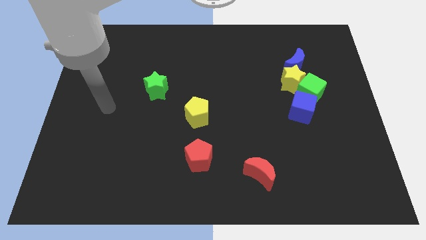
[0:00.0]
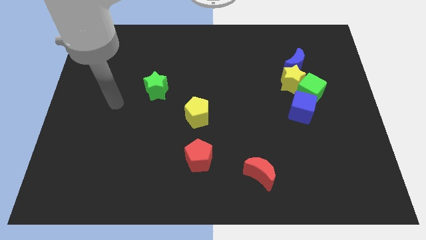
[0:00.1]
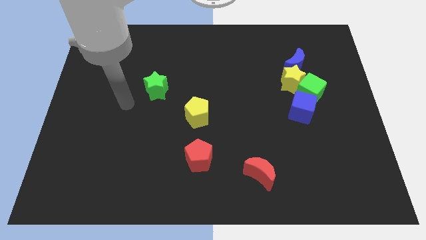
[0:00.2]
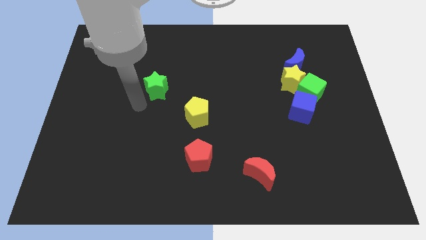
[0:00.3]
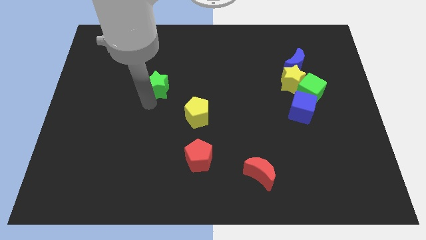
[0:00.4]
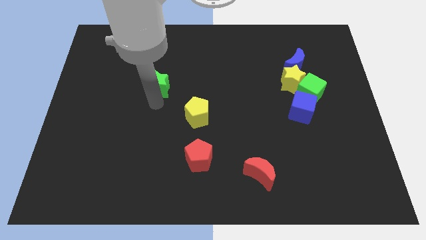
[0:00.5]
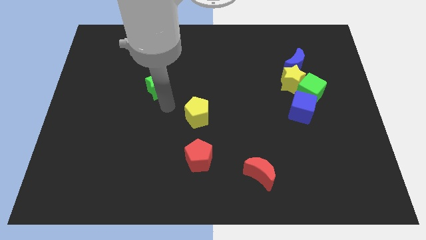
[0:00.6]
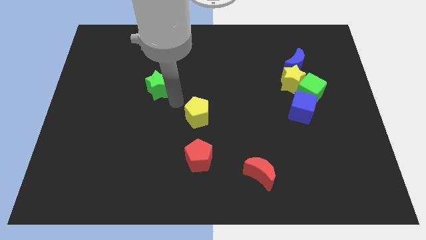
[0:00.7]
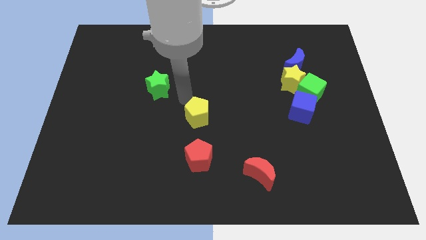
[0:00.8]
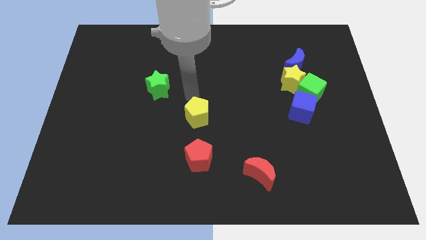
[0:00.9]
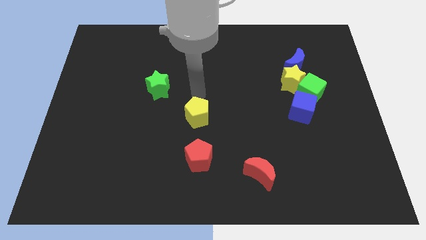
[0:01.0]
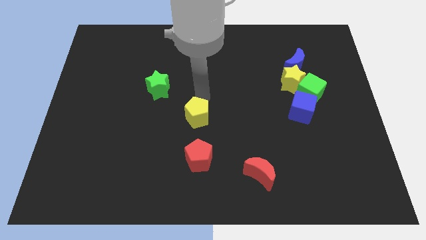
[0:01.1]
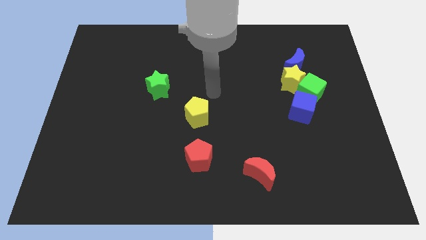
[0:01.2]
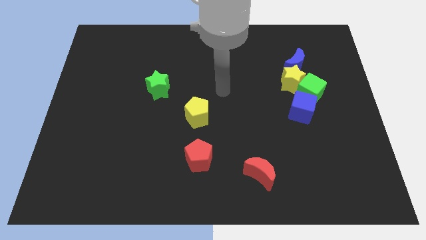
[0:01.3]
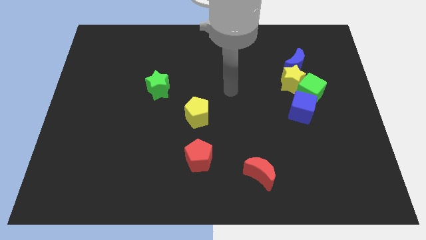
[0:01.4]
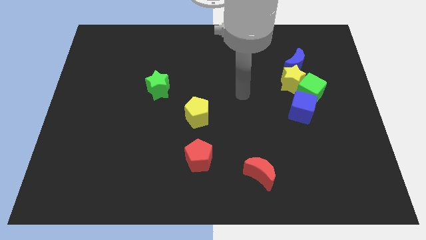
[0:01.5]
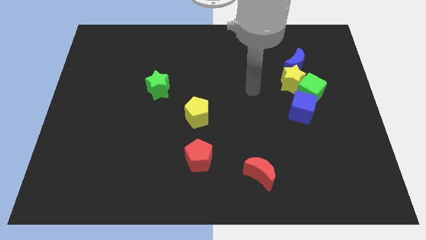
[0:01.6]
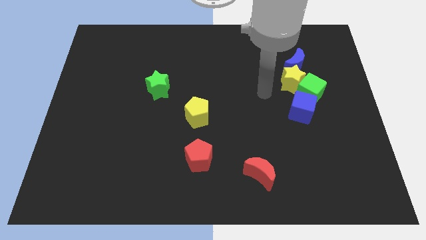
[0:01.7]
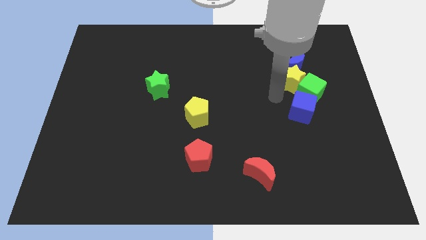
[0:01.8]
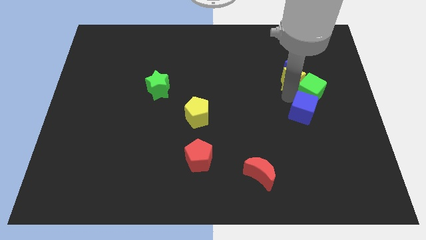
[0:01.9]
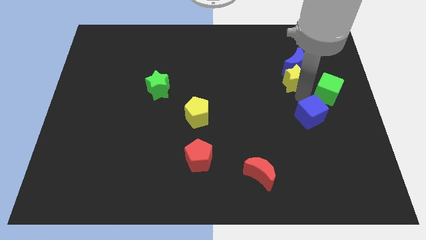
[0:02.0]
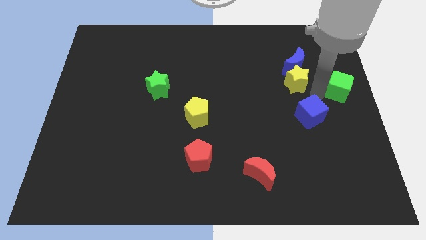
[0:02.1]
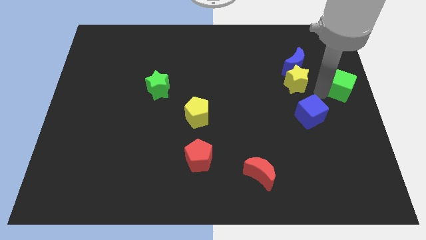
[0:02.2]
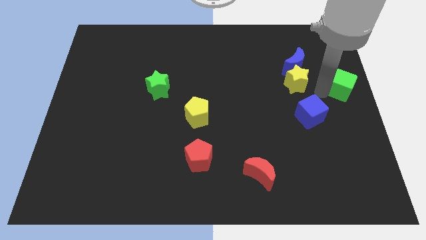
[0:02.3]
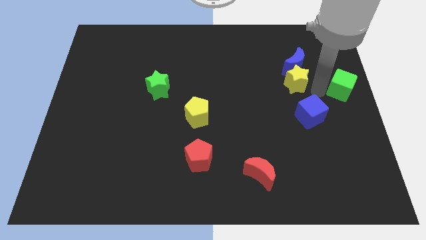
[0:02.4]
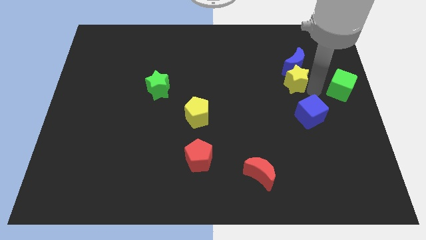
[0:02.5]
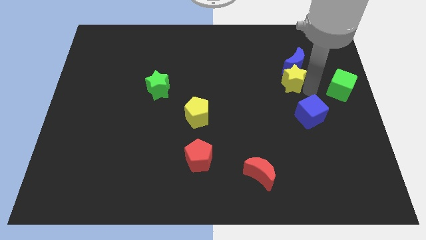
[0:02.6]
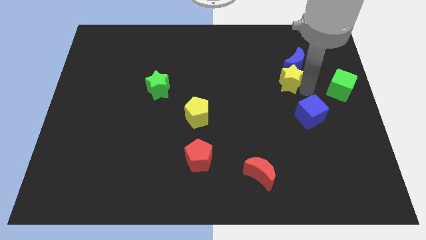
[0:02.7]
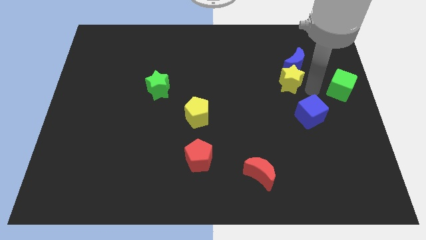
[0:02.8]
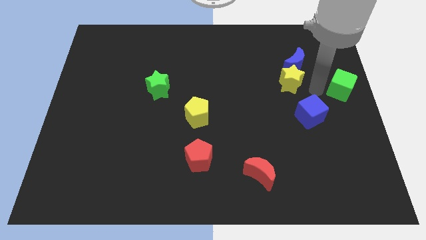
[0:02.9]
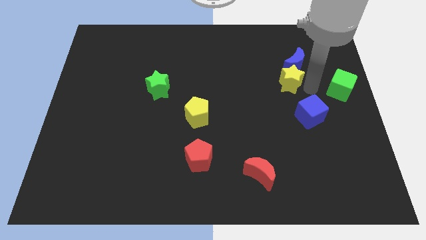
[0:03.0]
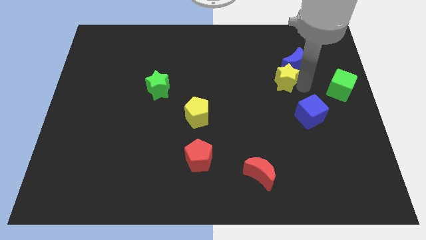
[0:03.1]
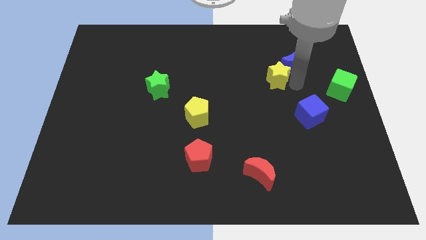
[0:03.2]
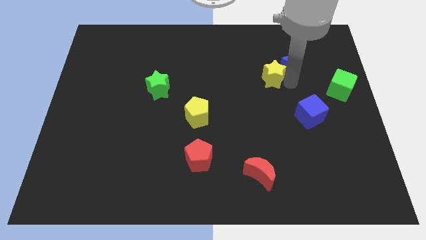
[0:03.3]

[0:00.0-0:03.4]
move the yellow star away from the group

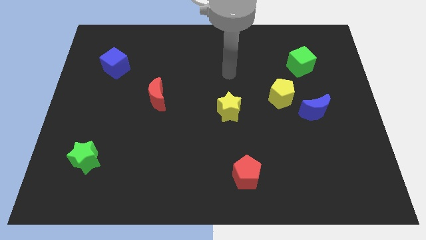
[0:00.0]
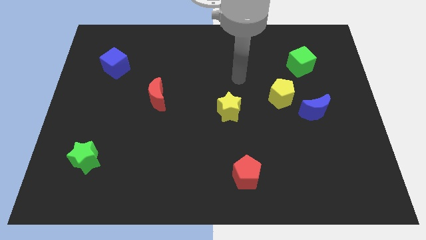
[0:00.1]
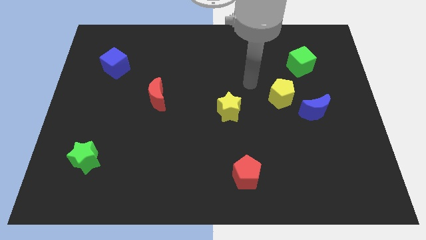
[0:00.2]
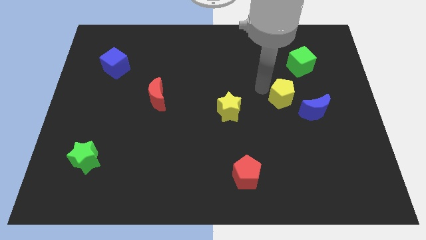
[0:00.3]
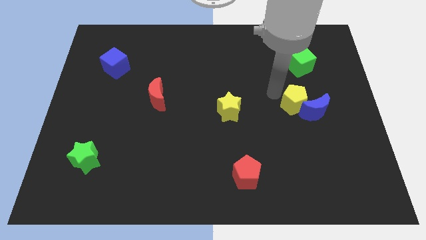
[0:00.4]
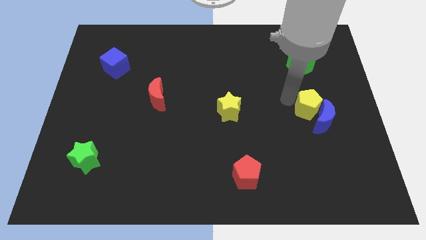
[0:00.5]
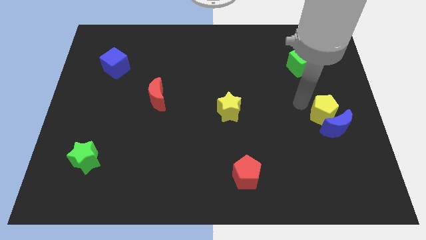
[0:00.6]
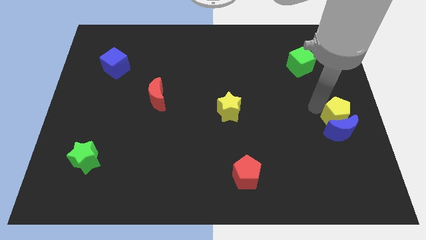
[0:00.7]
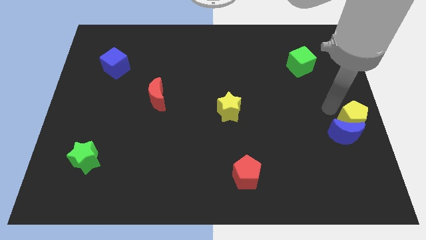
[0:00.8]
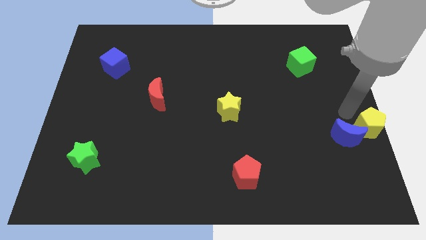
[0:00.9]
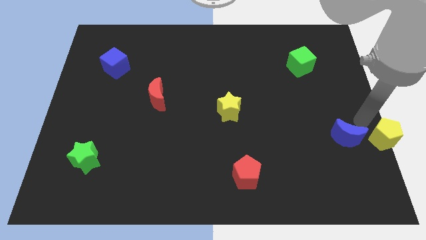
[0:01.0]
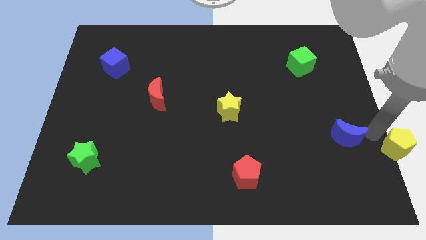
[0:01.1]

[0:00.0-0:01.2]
move the blue moon away from the yellow pentagon

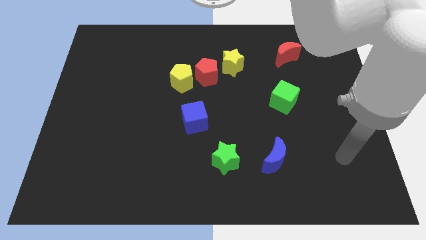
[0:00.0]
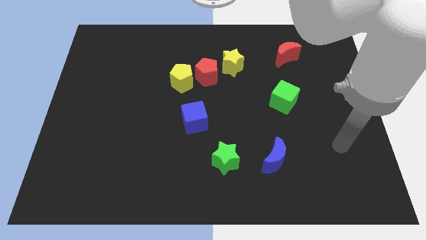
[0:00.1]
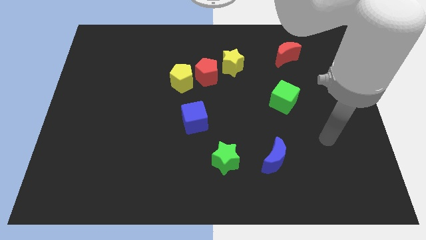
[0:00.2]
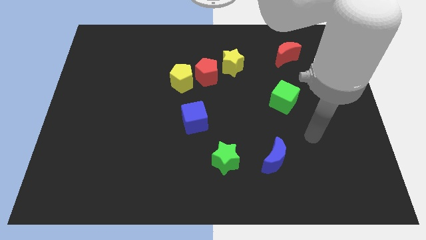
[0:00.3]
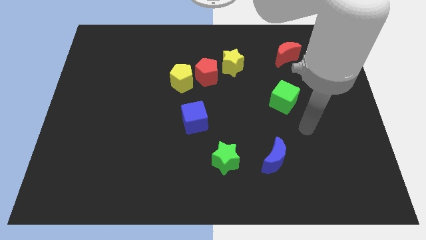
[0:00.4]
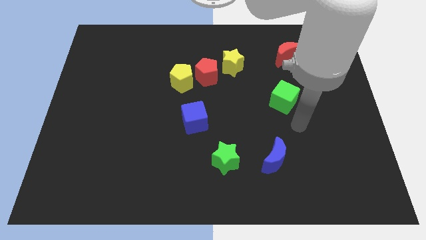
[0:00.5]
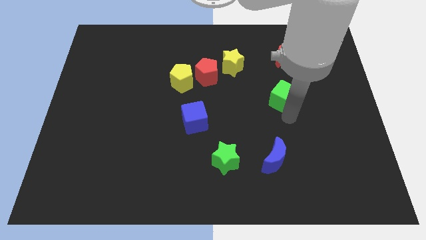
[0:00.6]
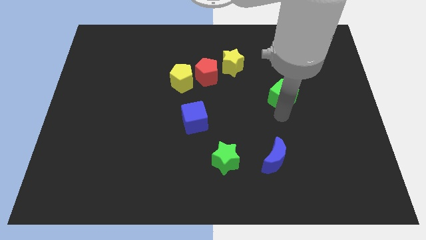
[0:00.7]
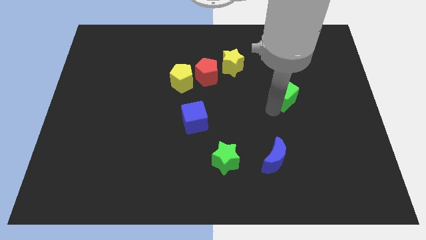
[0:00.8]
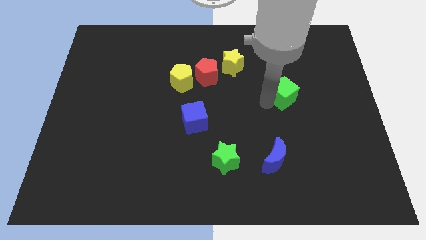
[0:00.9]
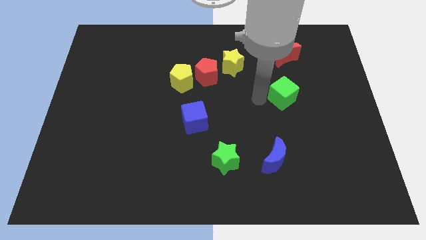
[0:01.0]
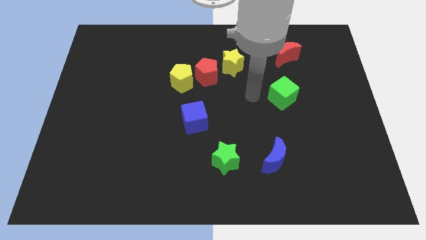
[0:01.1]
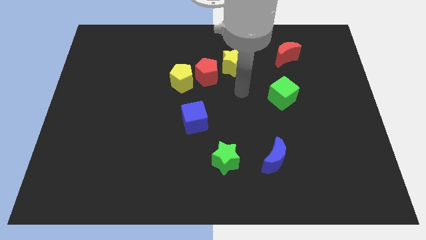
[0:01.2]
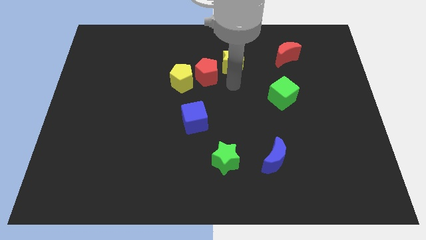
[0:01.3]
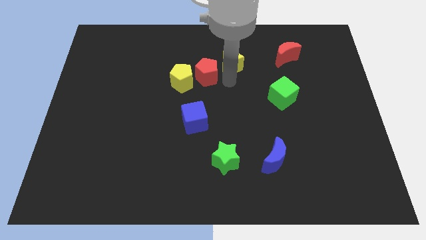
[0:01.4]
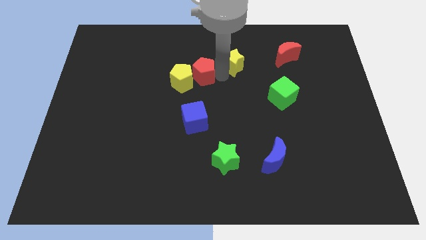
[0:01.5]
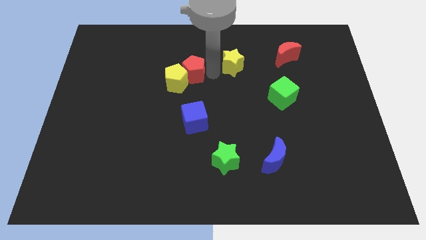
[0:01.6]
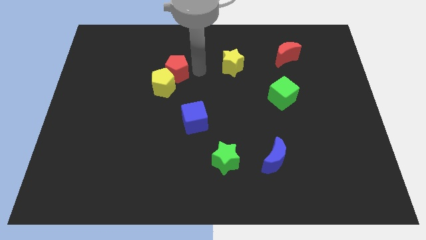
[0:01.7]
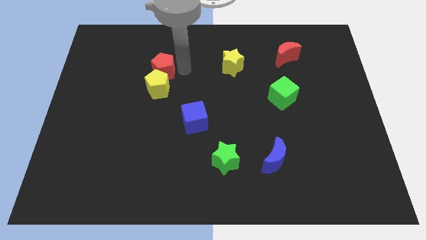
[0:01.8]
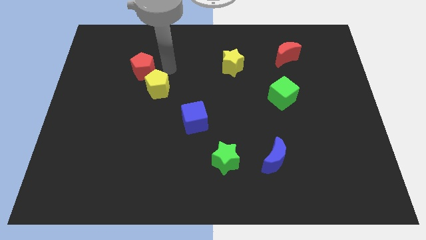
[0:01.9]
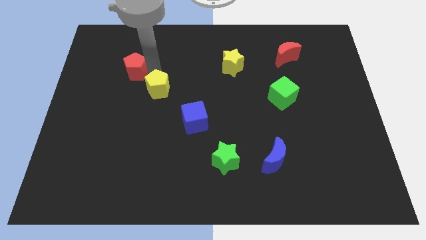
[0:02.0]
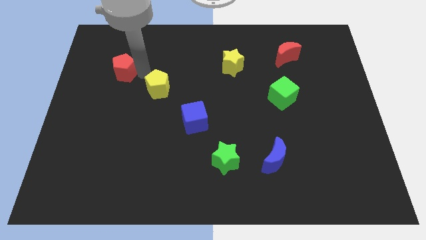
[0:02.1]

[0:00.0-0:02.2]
separate the yellow pentagon from the red pentagon

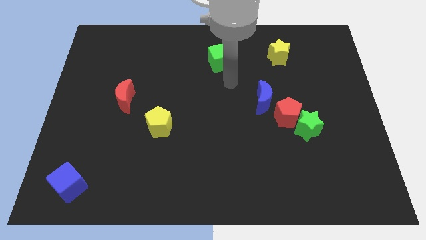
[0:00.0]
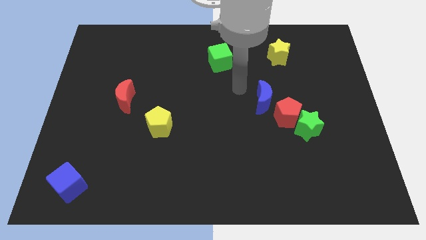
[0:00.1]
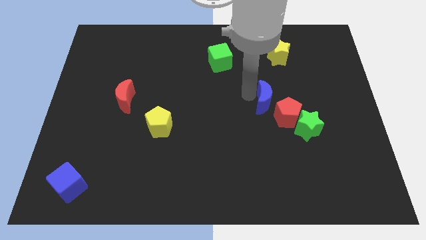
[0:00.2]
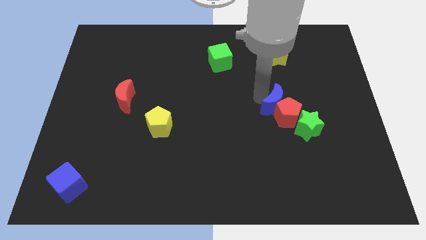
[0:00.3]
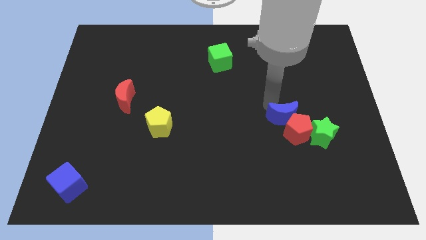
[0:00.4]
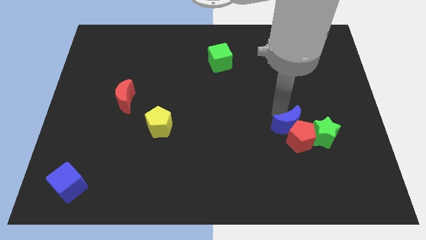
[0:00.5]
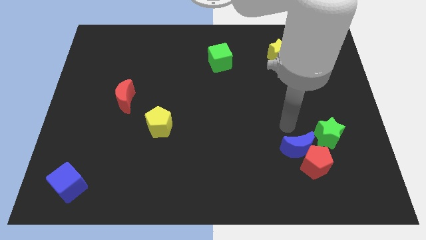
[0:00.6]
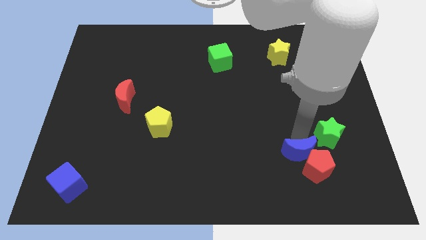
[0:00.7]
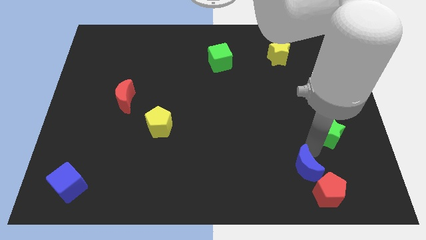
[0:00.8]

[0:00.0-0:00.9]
pull the green star apart from the red pentagon

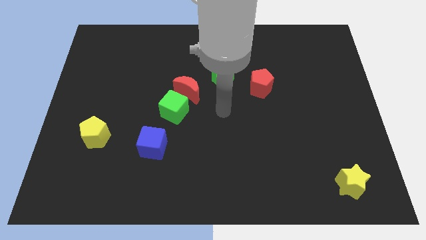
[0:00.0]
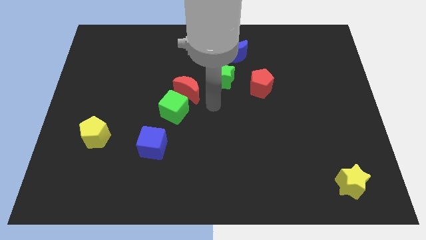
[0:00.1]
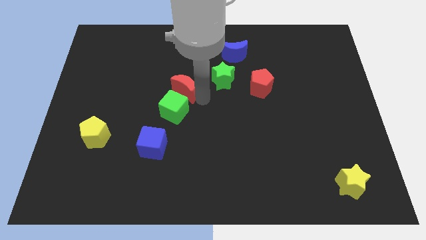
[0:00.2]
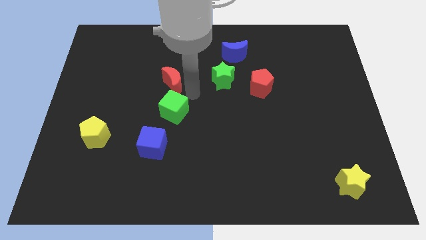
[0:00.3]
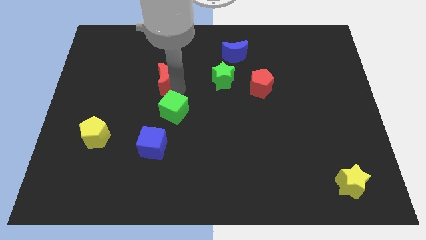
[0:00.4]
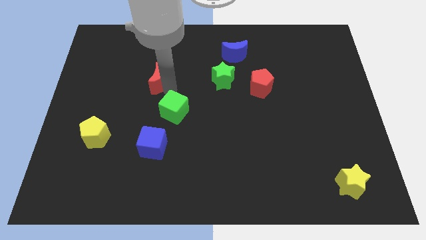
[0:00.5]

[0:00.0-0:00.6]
pull the green cube apart from the red moon

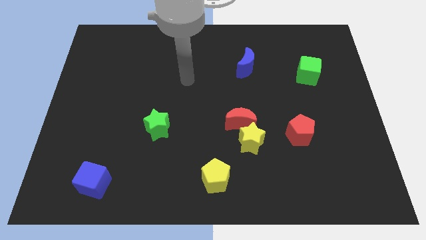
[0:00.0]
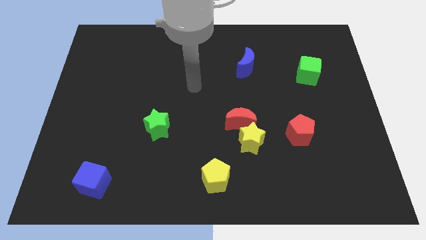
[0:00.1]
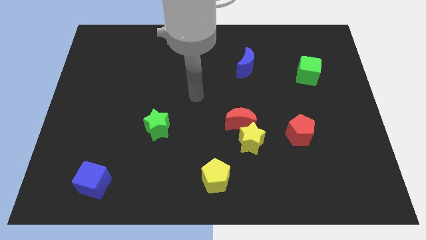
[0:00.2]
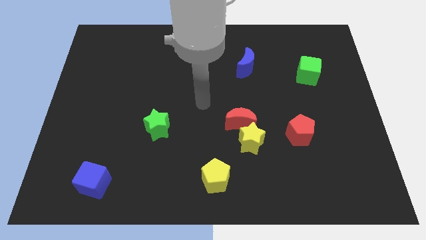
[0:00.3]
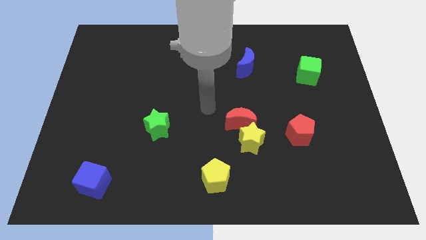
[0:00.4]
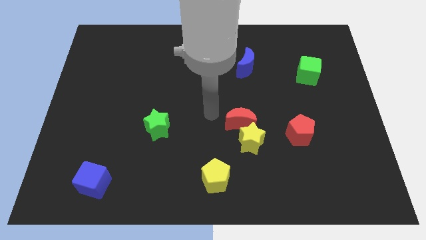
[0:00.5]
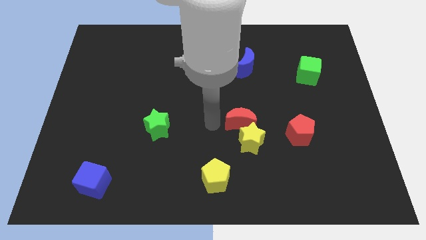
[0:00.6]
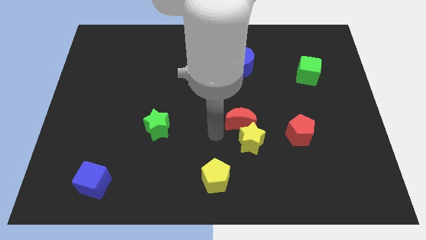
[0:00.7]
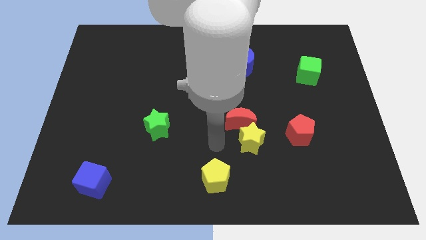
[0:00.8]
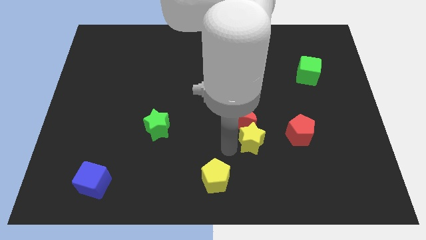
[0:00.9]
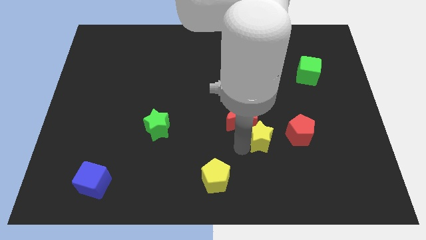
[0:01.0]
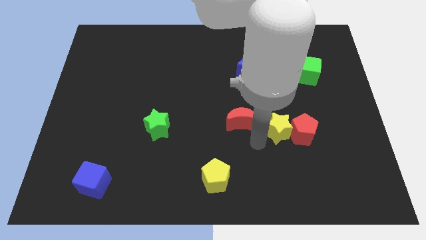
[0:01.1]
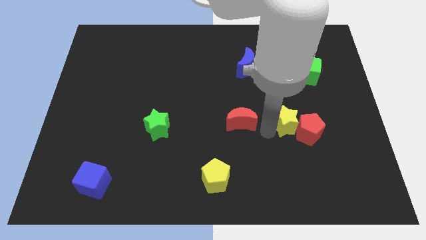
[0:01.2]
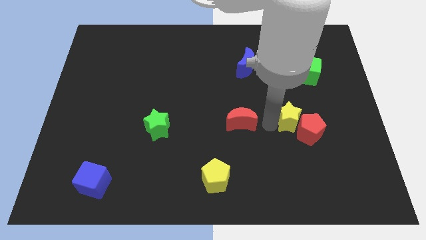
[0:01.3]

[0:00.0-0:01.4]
move the red moon away from the yellow star
